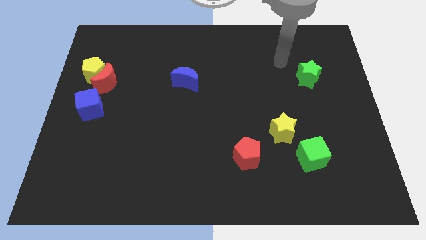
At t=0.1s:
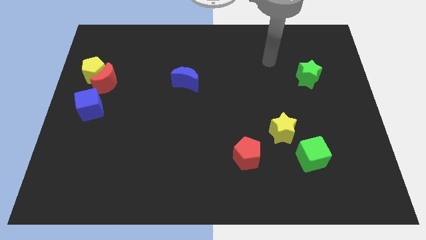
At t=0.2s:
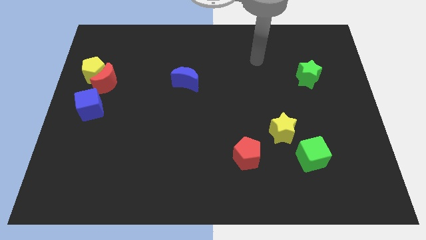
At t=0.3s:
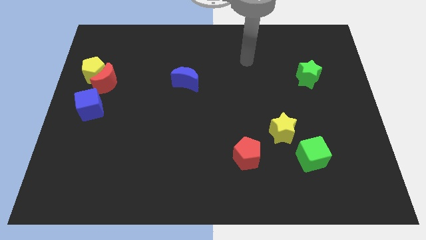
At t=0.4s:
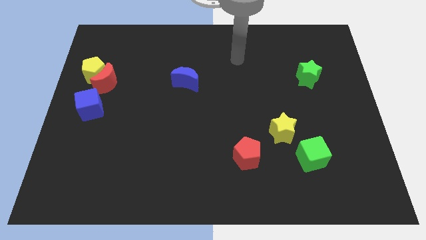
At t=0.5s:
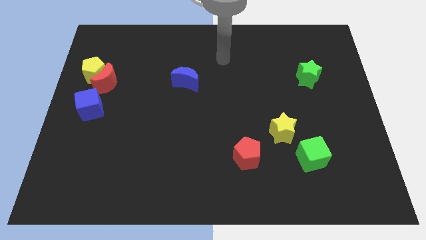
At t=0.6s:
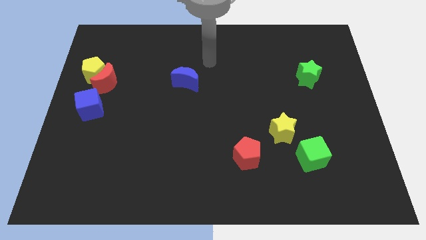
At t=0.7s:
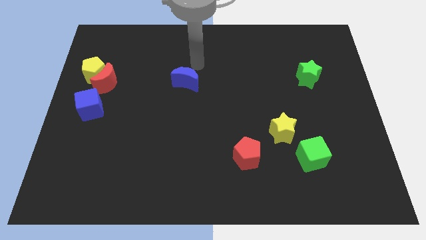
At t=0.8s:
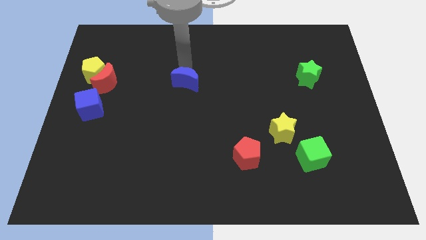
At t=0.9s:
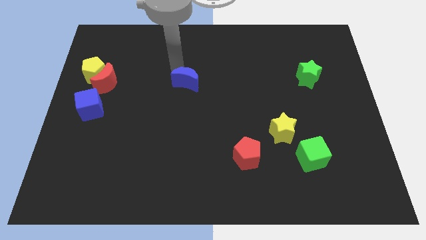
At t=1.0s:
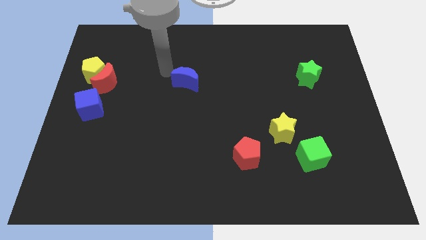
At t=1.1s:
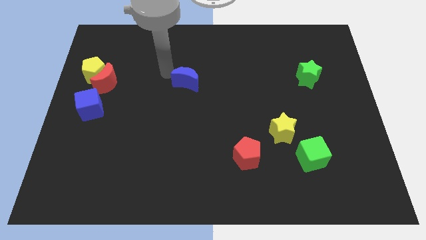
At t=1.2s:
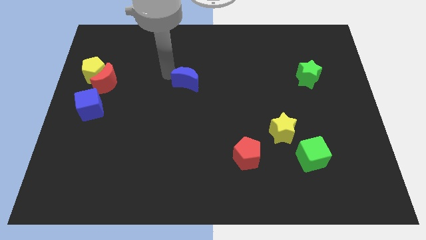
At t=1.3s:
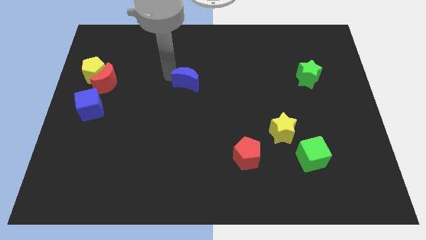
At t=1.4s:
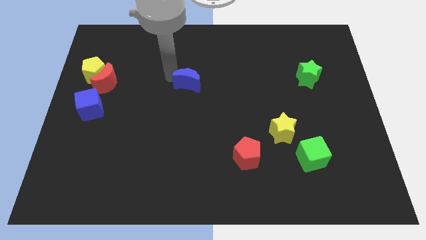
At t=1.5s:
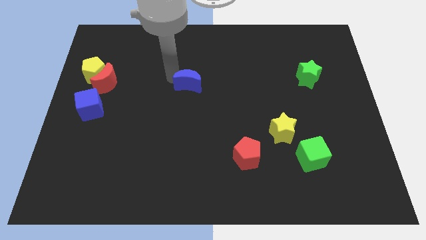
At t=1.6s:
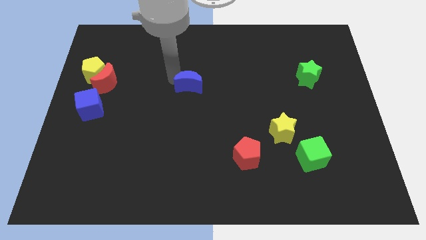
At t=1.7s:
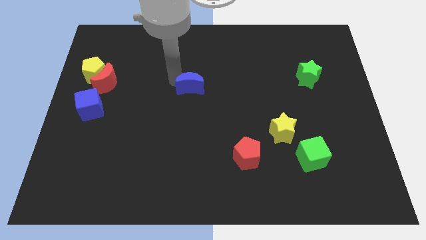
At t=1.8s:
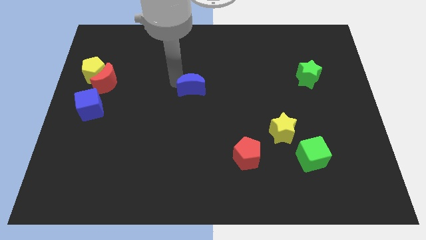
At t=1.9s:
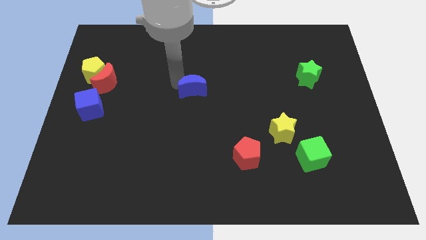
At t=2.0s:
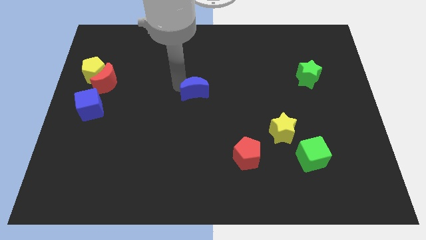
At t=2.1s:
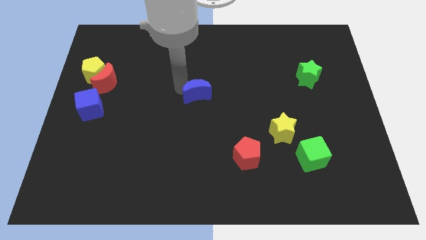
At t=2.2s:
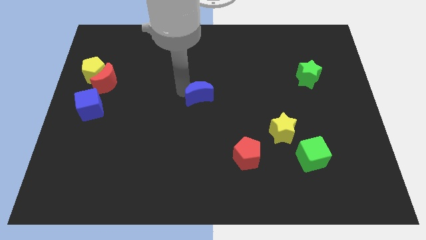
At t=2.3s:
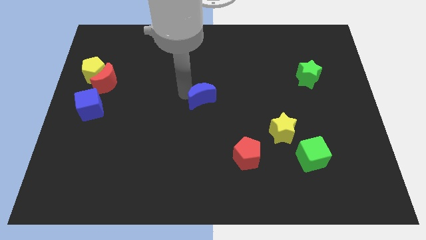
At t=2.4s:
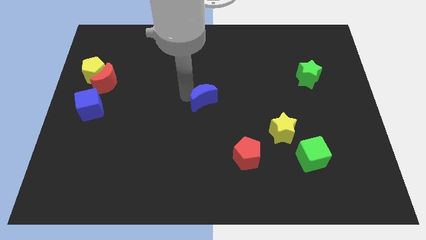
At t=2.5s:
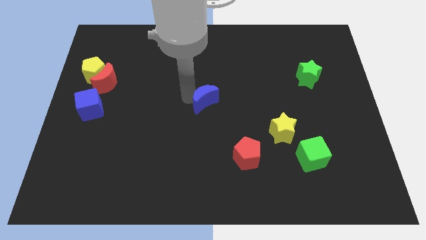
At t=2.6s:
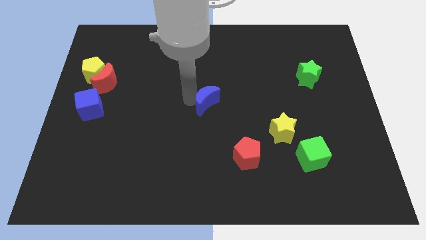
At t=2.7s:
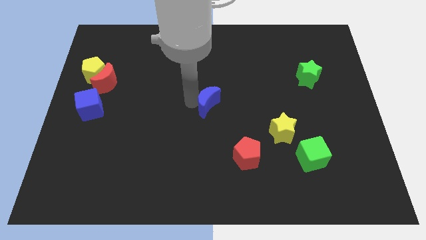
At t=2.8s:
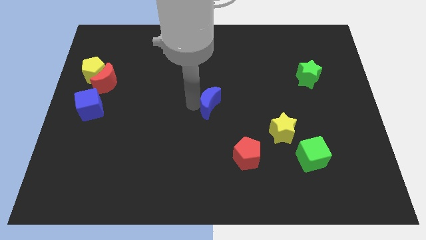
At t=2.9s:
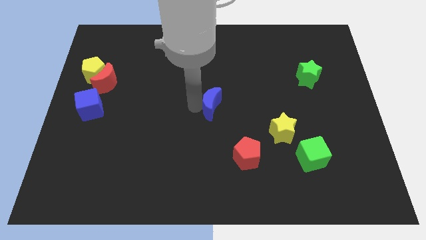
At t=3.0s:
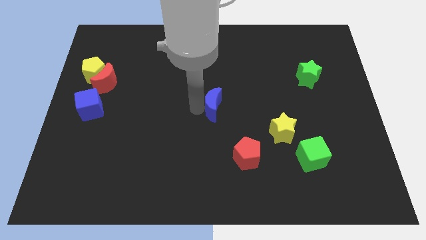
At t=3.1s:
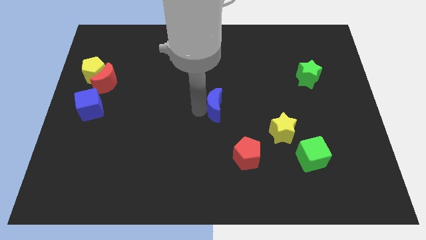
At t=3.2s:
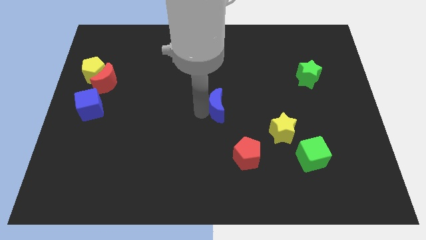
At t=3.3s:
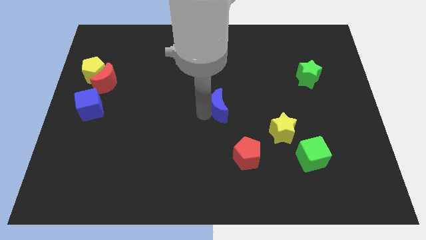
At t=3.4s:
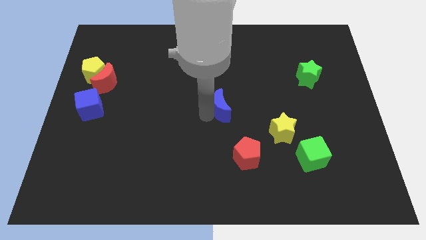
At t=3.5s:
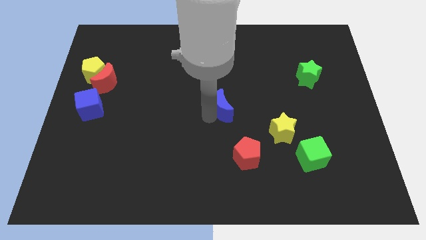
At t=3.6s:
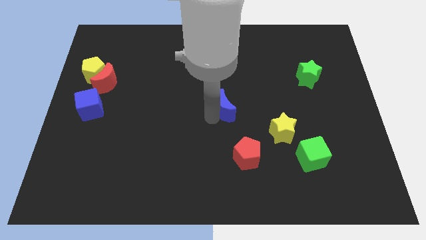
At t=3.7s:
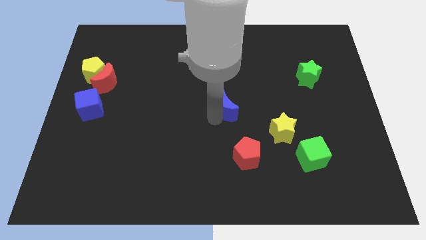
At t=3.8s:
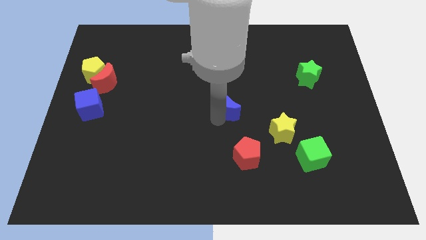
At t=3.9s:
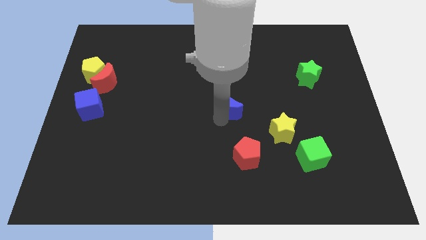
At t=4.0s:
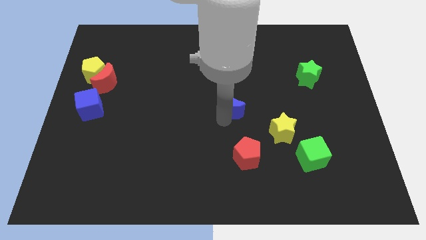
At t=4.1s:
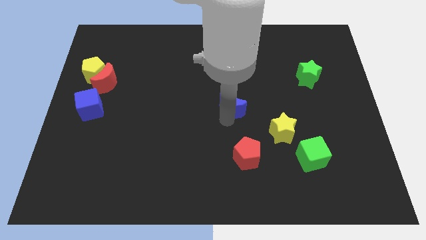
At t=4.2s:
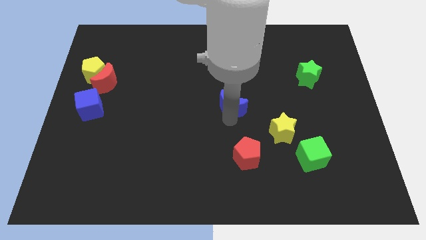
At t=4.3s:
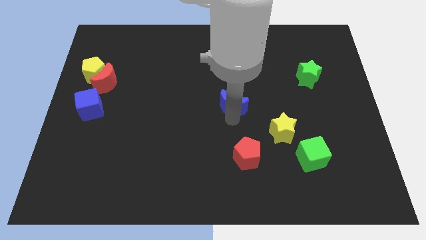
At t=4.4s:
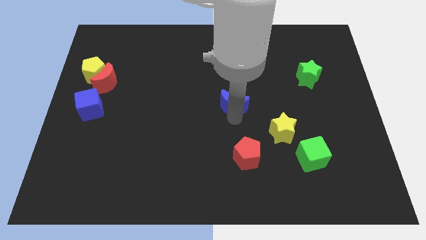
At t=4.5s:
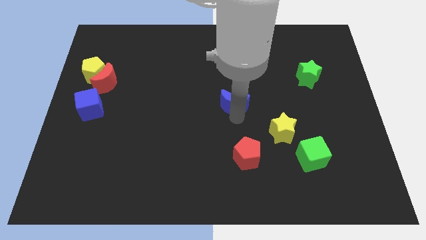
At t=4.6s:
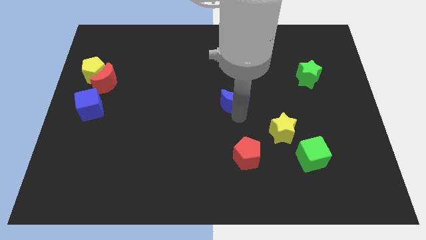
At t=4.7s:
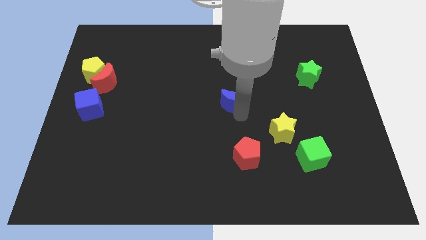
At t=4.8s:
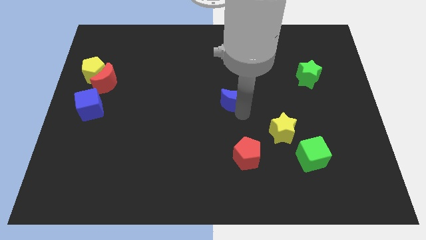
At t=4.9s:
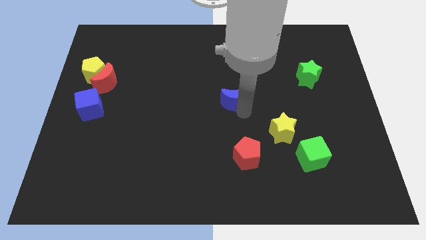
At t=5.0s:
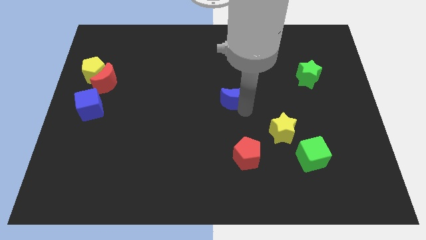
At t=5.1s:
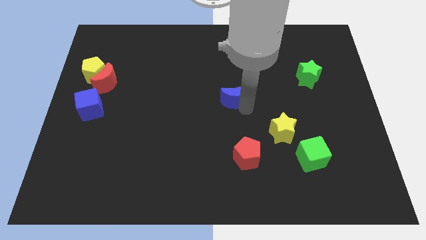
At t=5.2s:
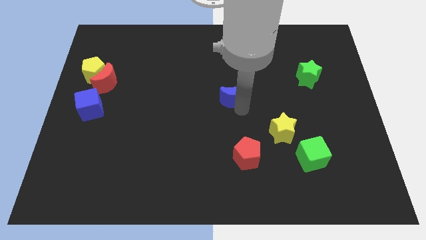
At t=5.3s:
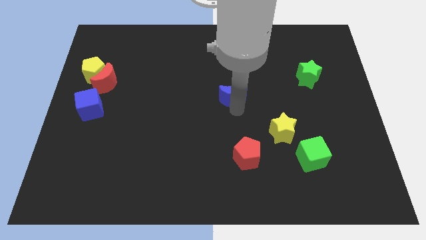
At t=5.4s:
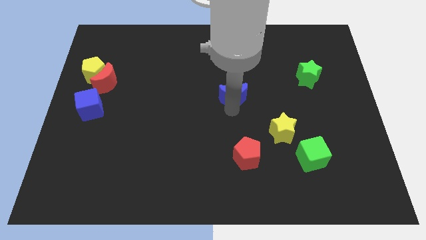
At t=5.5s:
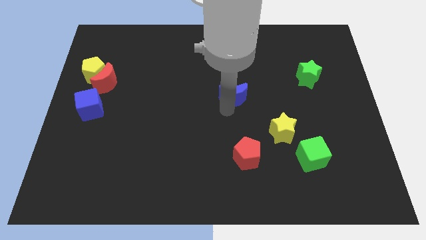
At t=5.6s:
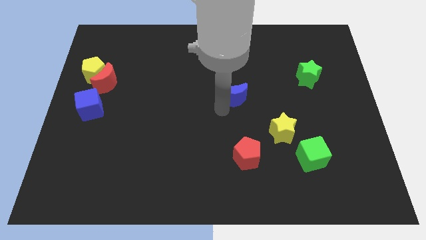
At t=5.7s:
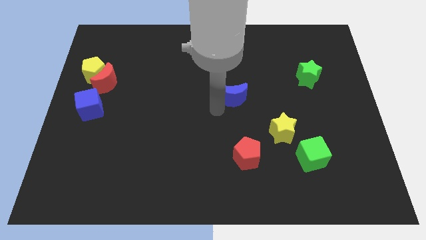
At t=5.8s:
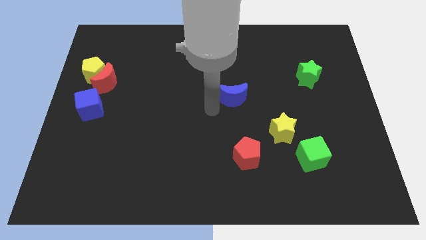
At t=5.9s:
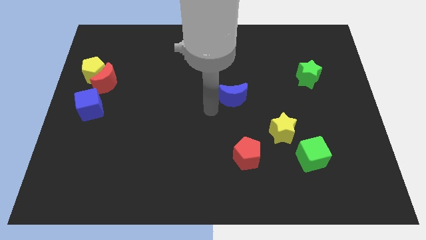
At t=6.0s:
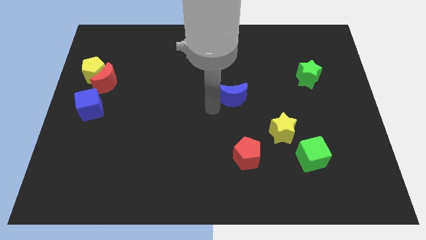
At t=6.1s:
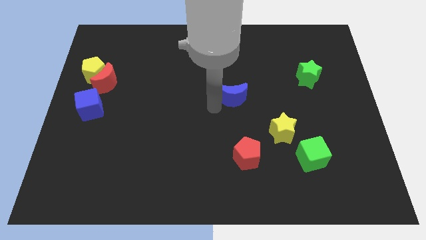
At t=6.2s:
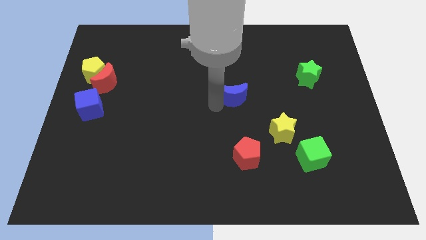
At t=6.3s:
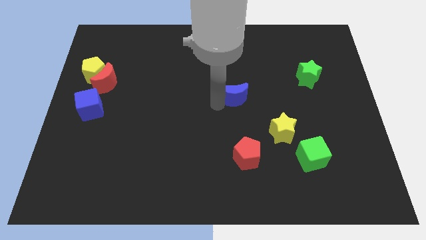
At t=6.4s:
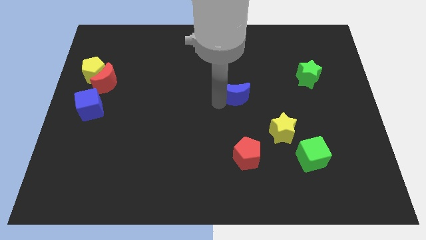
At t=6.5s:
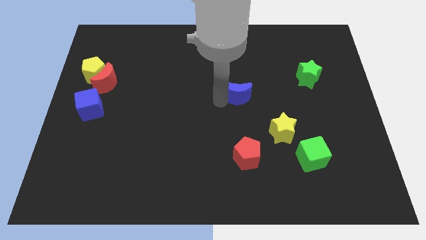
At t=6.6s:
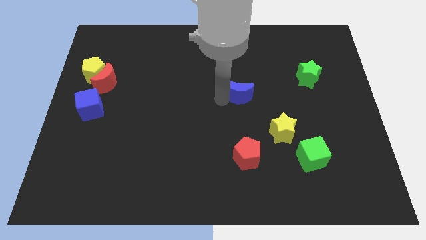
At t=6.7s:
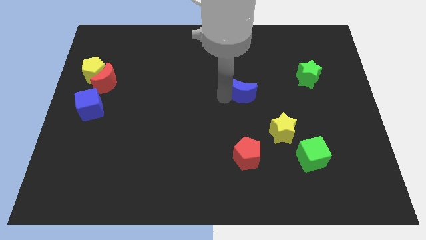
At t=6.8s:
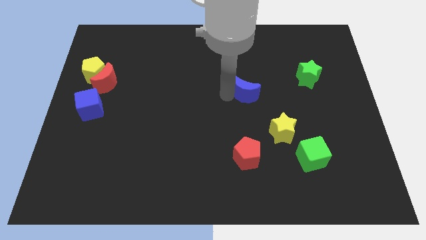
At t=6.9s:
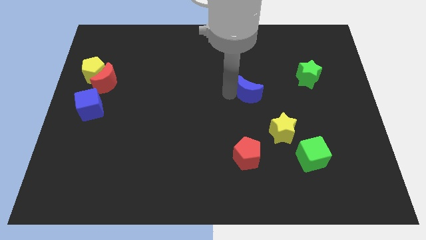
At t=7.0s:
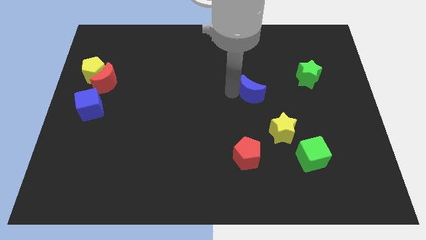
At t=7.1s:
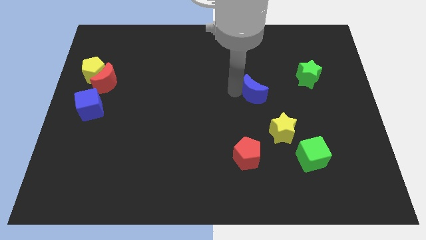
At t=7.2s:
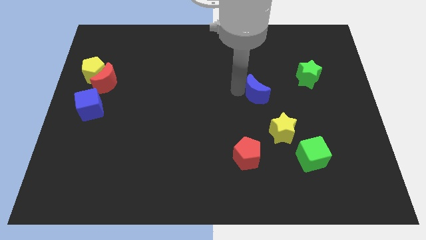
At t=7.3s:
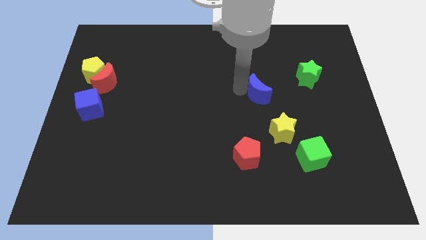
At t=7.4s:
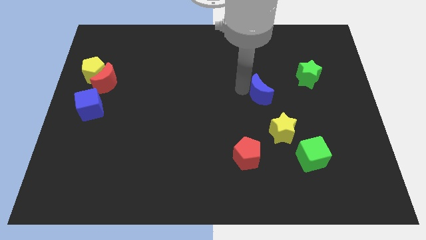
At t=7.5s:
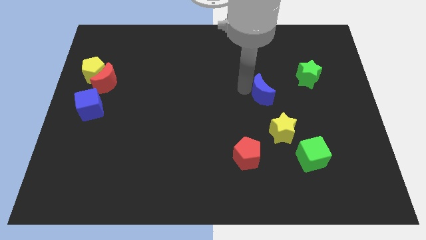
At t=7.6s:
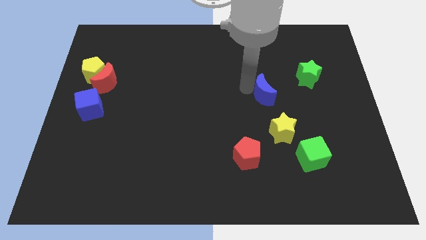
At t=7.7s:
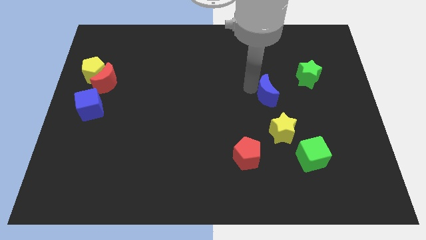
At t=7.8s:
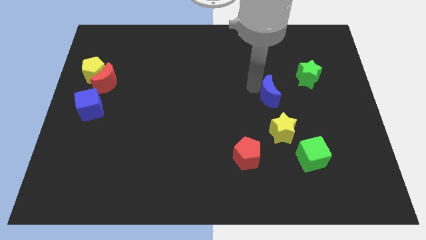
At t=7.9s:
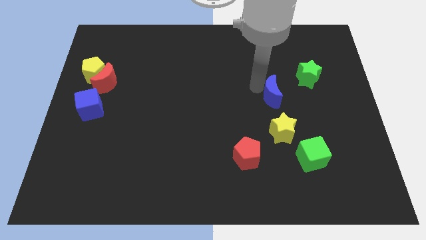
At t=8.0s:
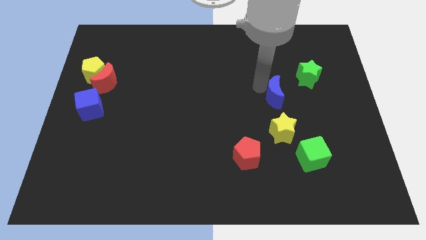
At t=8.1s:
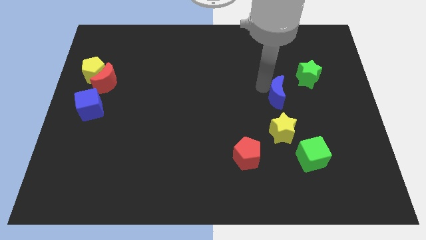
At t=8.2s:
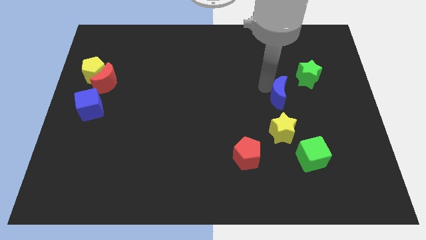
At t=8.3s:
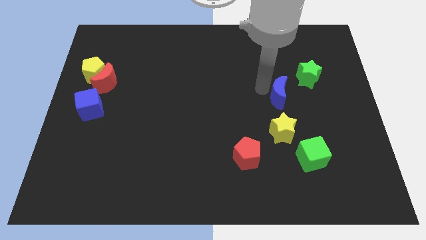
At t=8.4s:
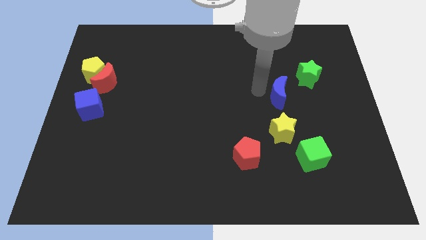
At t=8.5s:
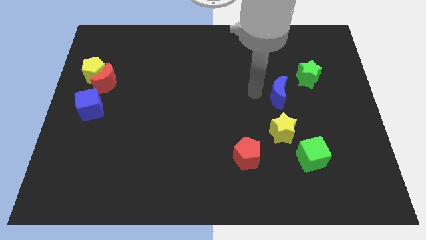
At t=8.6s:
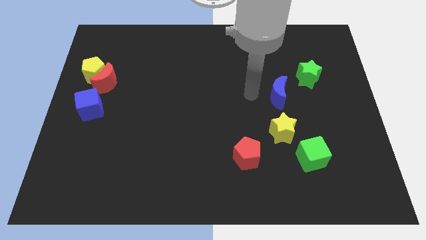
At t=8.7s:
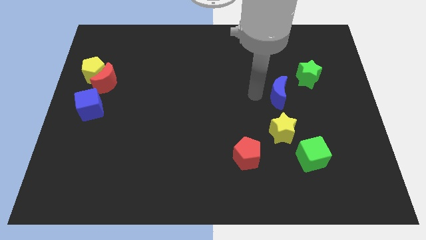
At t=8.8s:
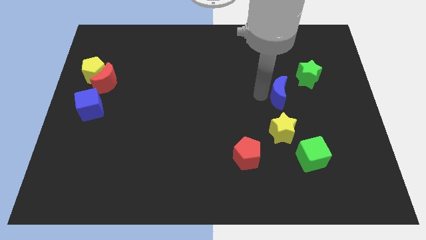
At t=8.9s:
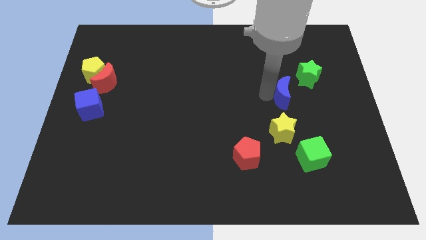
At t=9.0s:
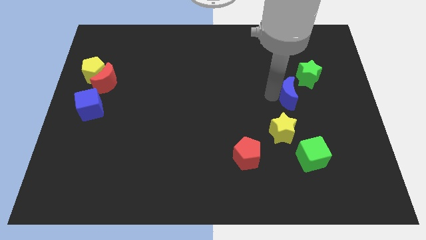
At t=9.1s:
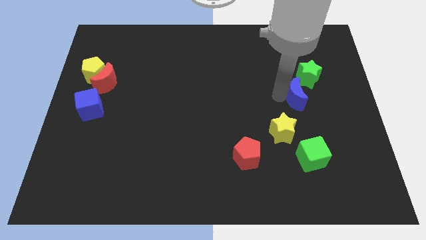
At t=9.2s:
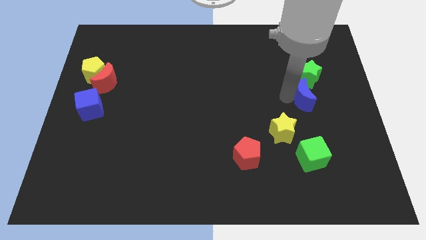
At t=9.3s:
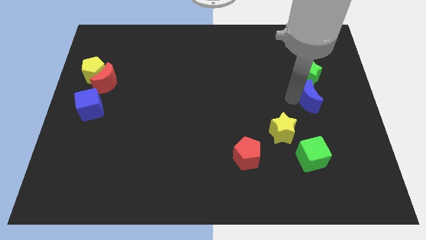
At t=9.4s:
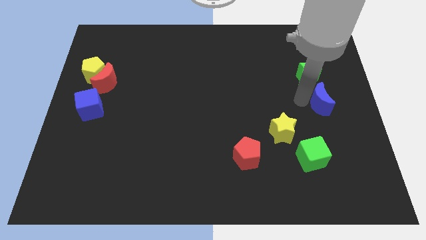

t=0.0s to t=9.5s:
move the blue moon to the center right
